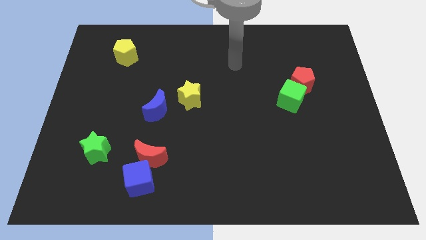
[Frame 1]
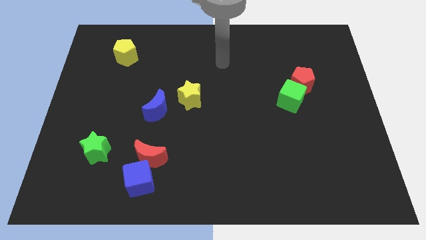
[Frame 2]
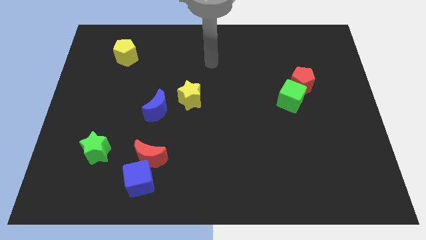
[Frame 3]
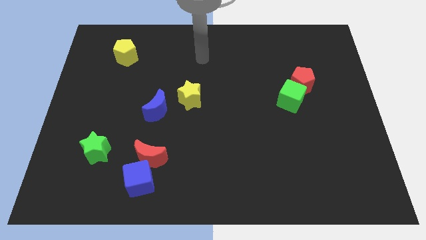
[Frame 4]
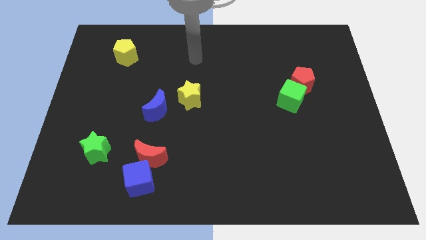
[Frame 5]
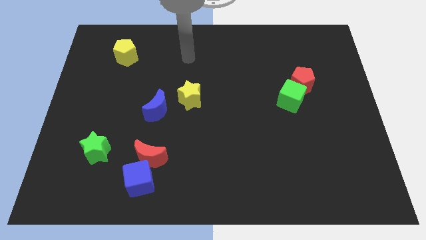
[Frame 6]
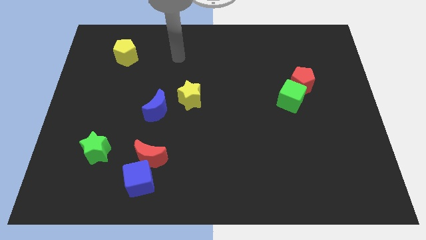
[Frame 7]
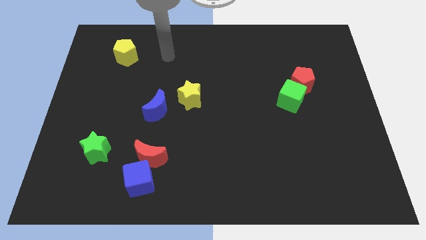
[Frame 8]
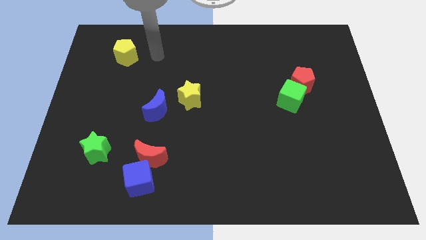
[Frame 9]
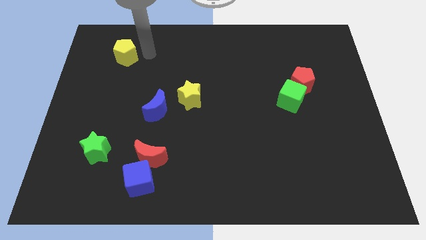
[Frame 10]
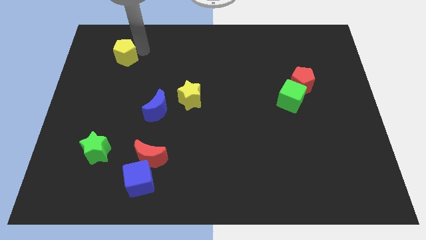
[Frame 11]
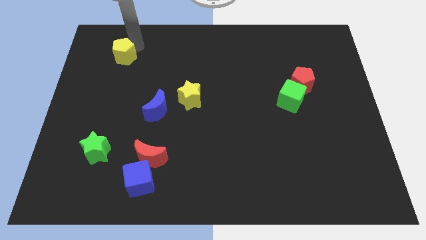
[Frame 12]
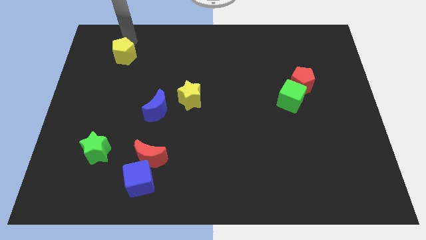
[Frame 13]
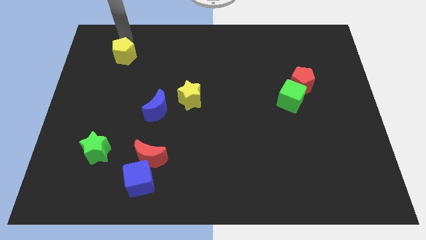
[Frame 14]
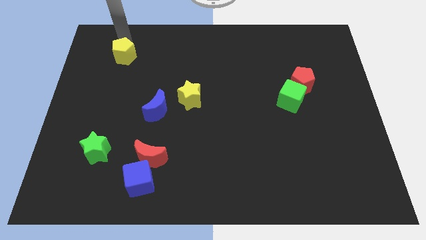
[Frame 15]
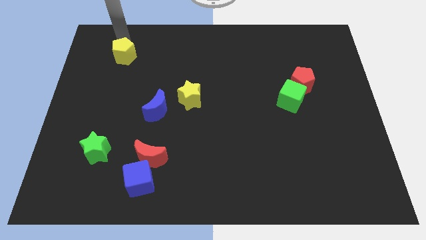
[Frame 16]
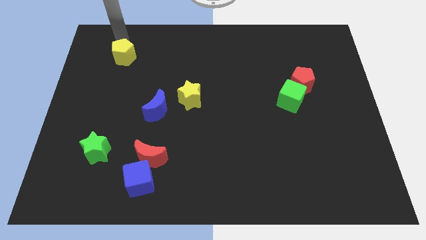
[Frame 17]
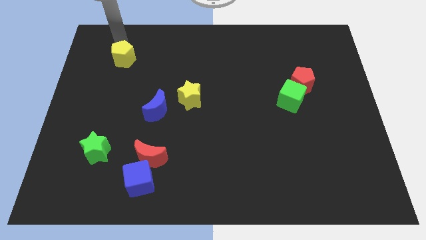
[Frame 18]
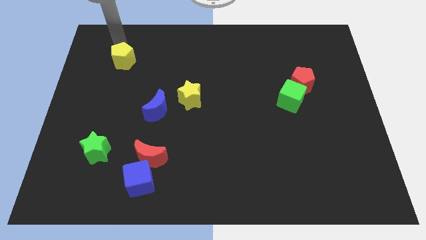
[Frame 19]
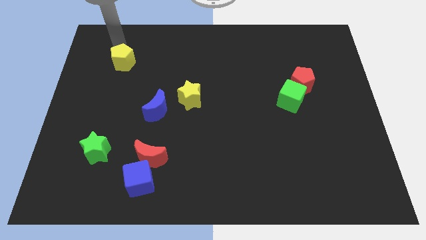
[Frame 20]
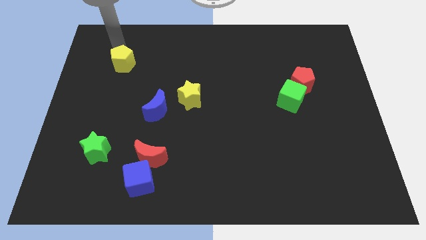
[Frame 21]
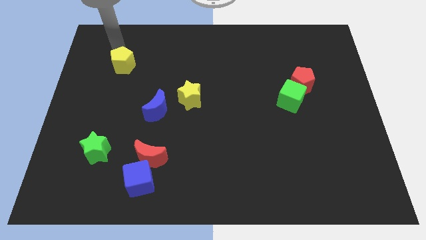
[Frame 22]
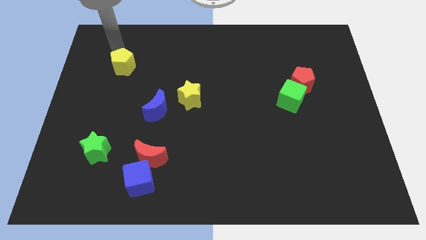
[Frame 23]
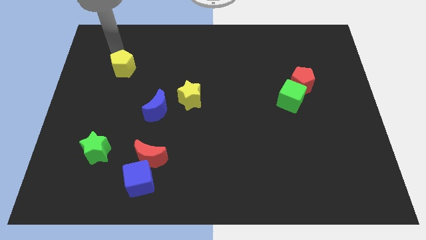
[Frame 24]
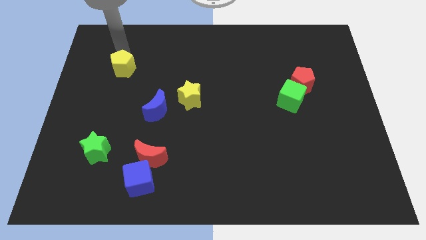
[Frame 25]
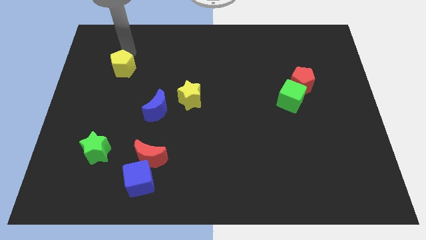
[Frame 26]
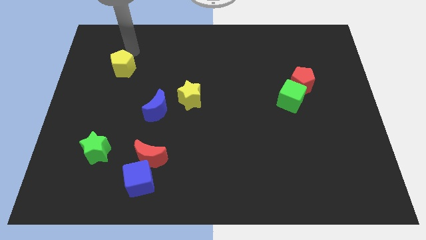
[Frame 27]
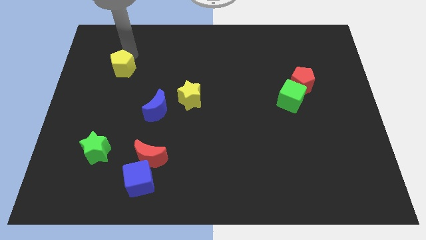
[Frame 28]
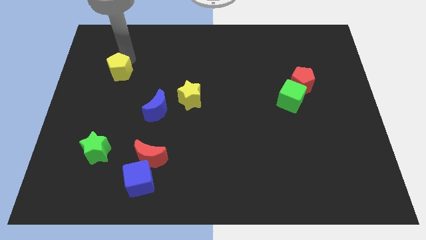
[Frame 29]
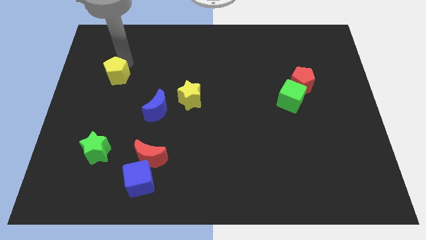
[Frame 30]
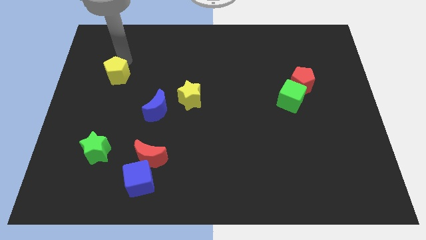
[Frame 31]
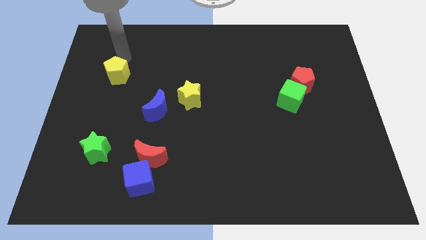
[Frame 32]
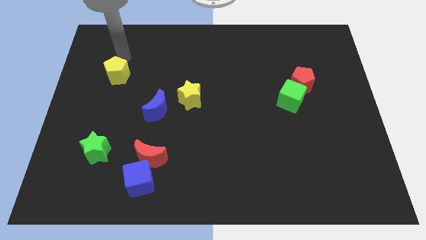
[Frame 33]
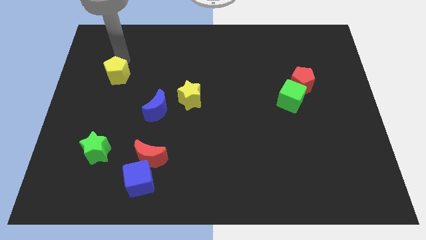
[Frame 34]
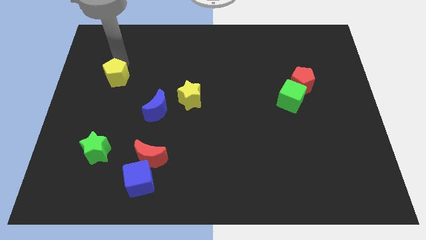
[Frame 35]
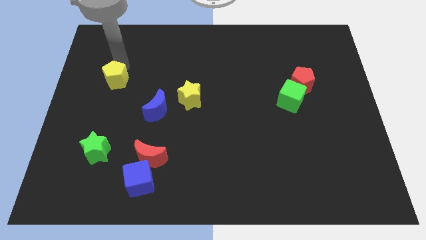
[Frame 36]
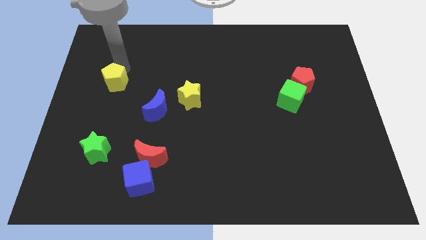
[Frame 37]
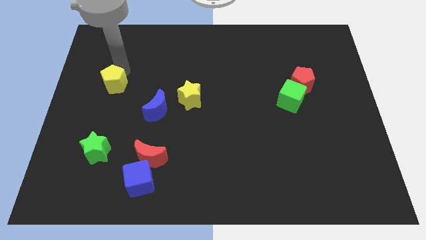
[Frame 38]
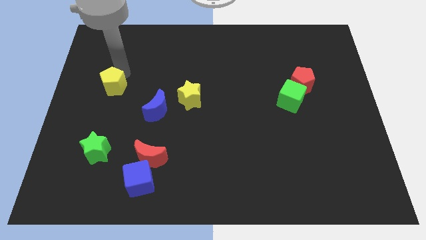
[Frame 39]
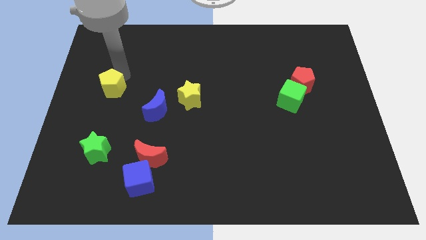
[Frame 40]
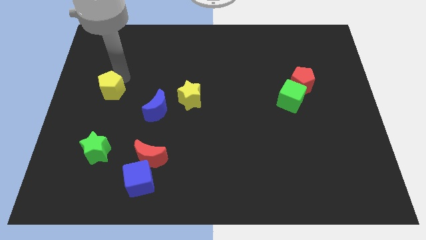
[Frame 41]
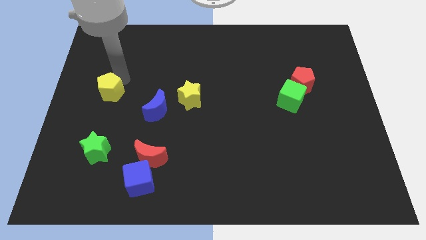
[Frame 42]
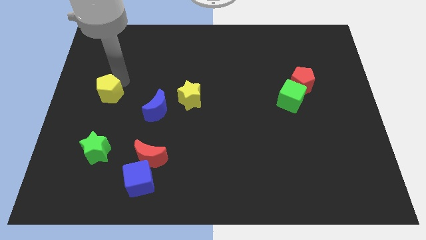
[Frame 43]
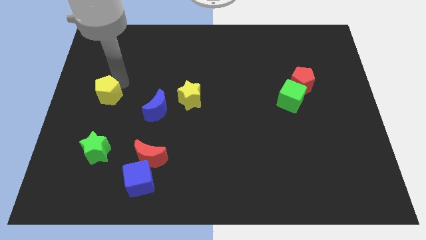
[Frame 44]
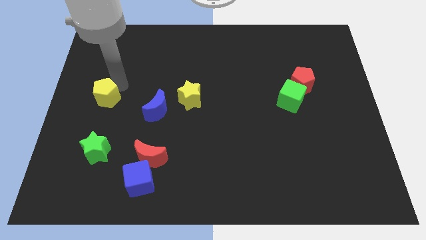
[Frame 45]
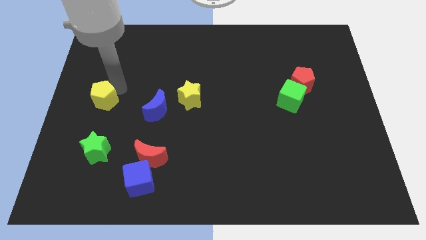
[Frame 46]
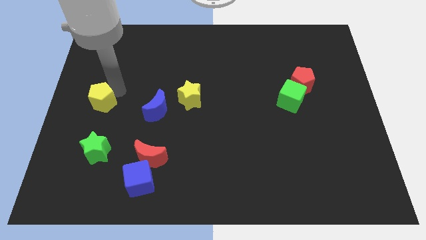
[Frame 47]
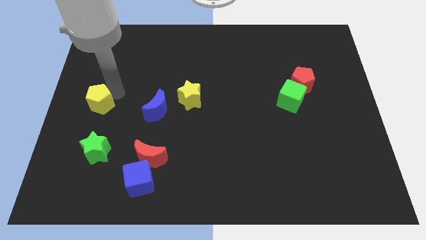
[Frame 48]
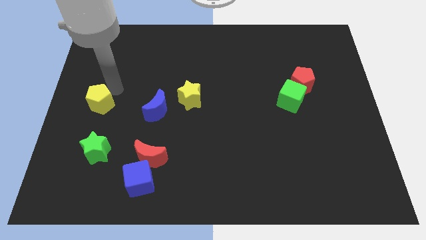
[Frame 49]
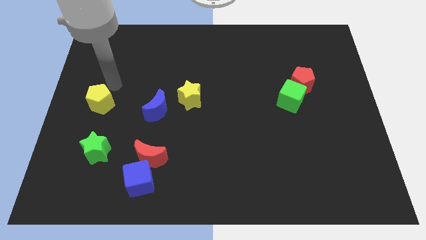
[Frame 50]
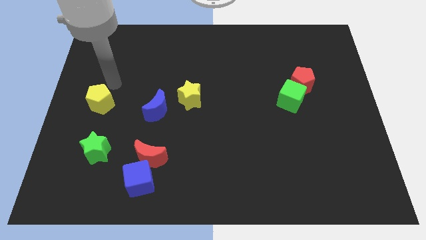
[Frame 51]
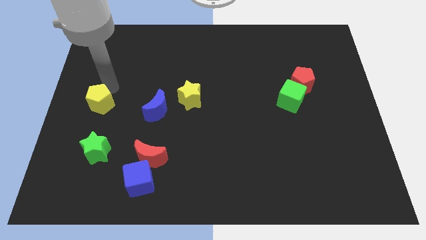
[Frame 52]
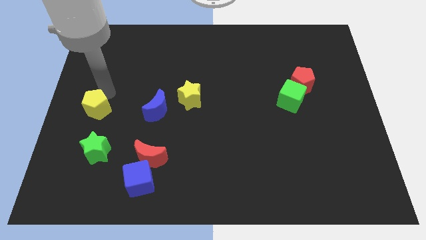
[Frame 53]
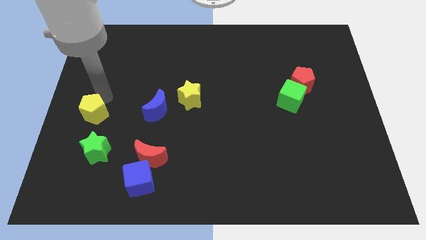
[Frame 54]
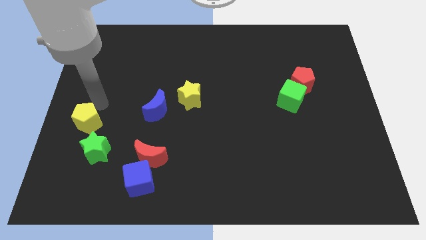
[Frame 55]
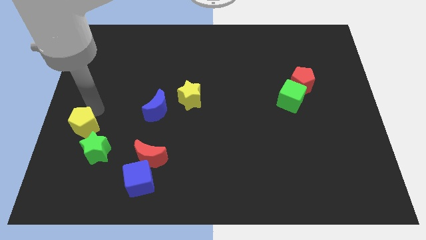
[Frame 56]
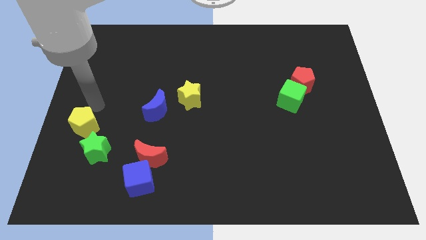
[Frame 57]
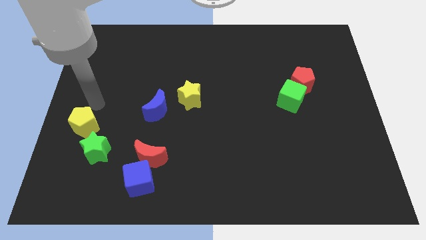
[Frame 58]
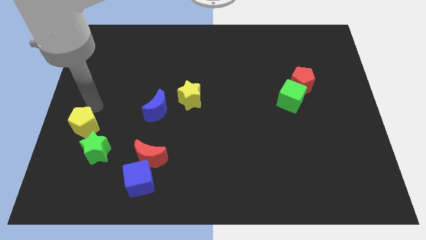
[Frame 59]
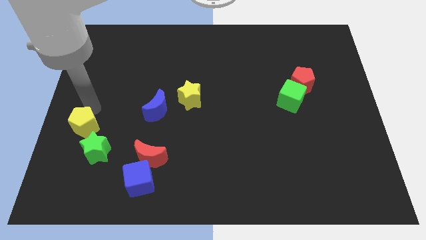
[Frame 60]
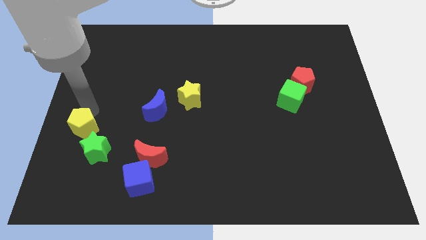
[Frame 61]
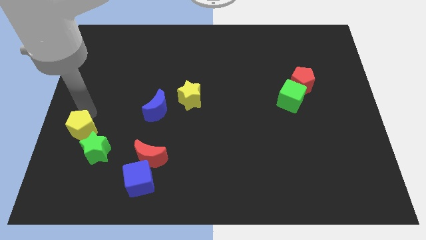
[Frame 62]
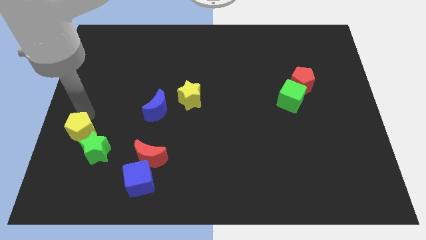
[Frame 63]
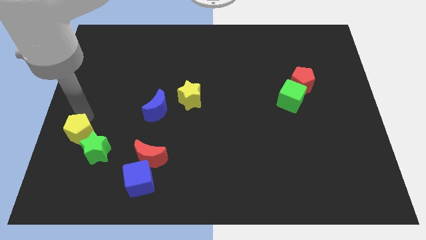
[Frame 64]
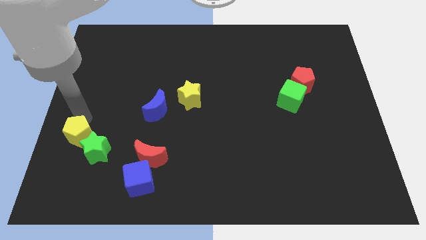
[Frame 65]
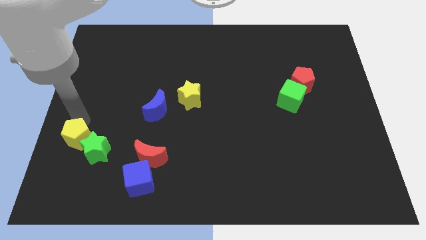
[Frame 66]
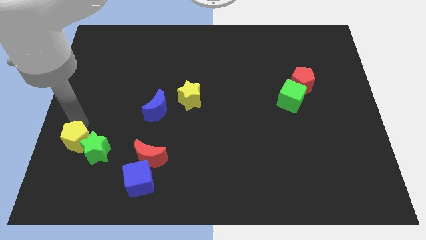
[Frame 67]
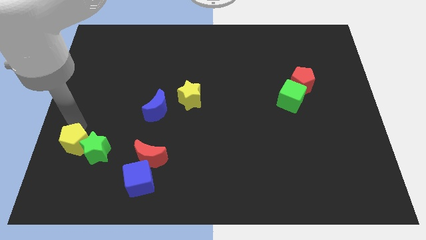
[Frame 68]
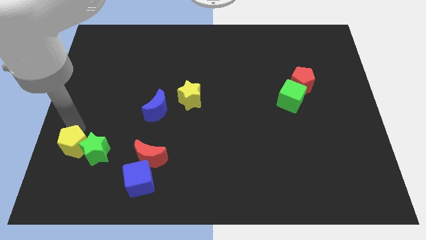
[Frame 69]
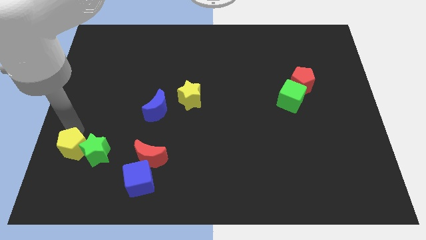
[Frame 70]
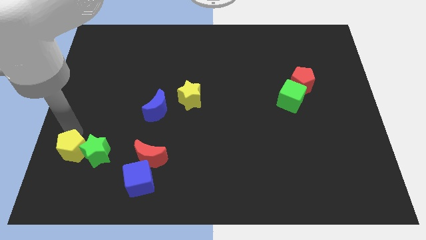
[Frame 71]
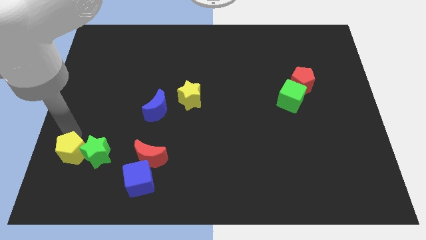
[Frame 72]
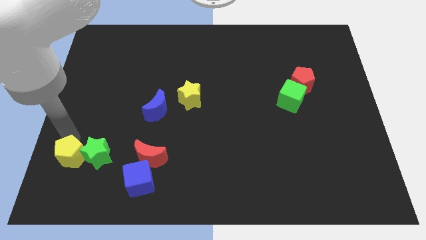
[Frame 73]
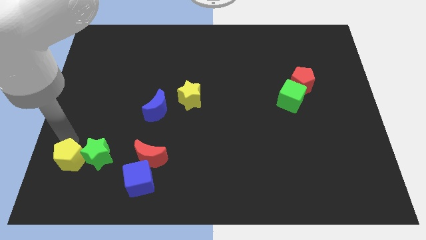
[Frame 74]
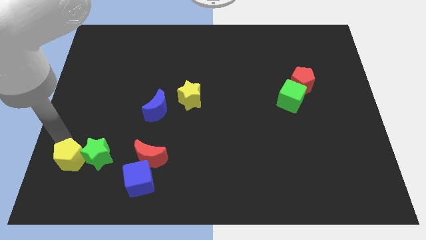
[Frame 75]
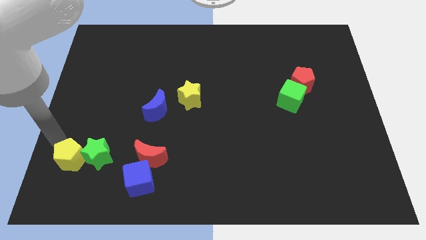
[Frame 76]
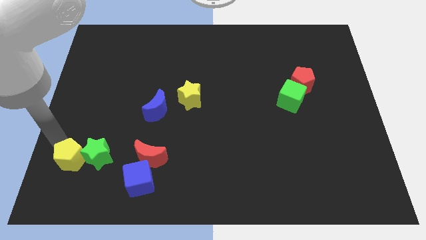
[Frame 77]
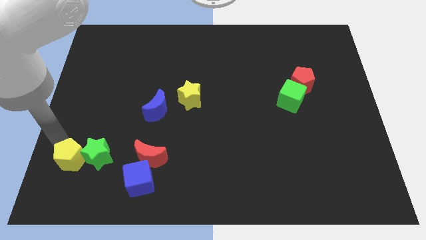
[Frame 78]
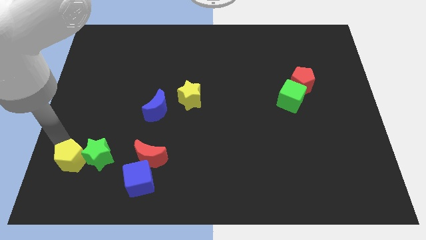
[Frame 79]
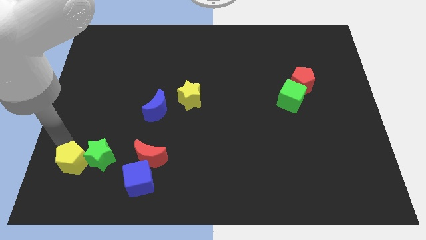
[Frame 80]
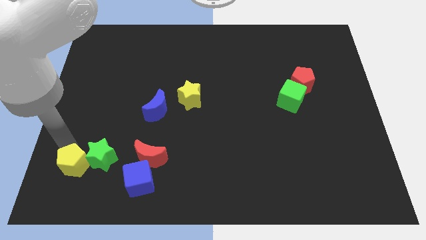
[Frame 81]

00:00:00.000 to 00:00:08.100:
move the yellow pentagon just left of the blue cube
